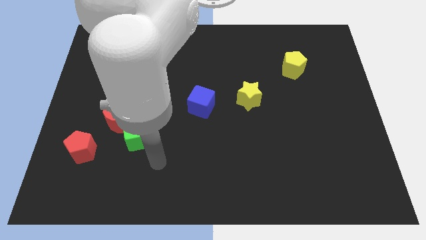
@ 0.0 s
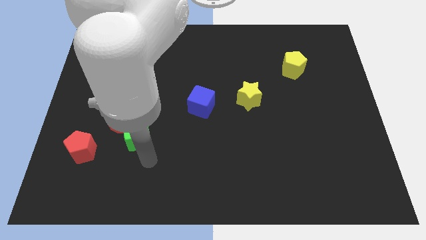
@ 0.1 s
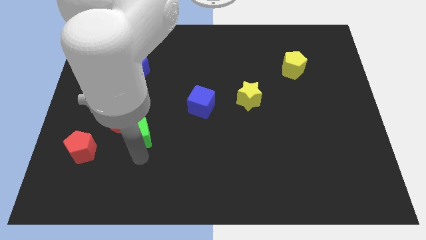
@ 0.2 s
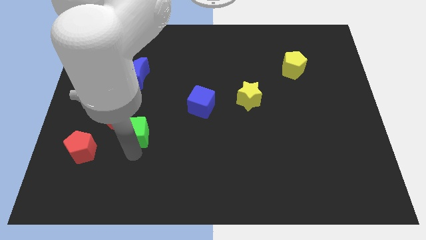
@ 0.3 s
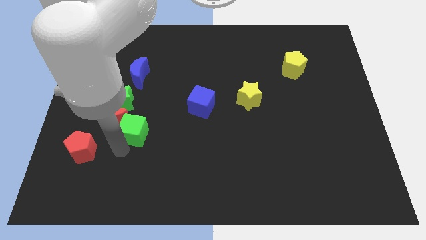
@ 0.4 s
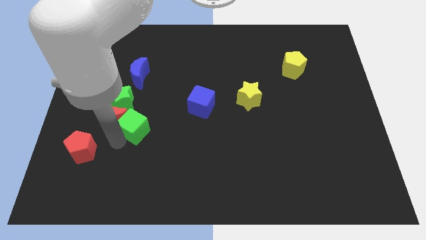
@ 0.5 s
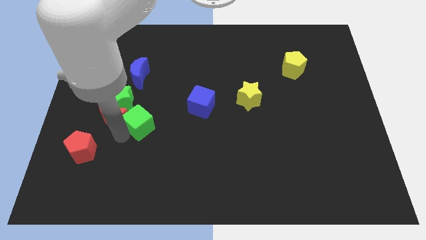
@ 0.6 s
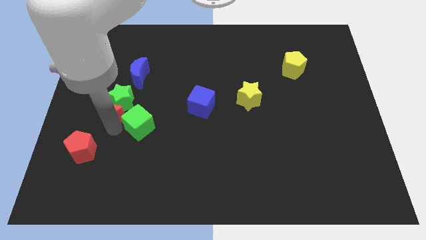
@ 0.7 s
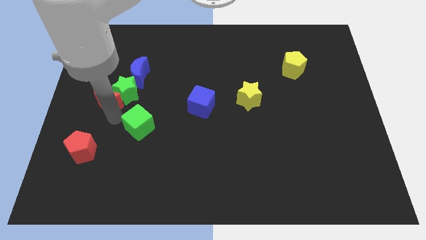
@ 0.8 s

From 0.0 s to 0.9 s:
move the green cube away from the red moon

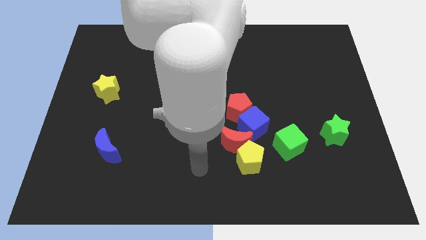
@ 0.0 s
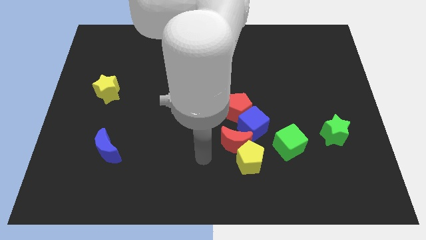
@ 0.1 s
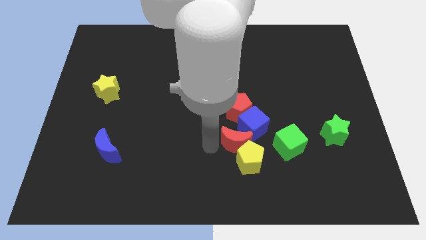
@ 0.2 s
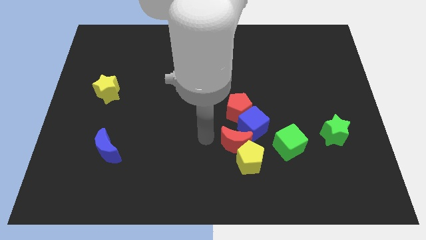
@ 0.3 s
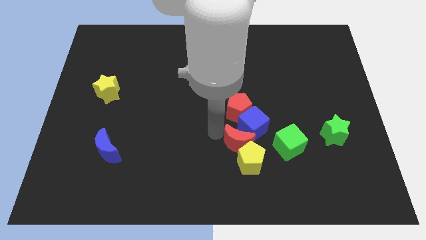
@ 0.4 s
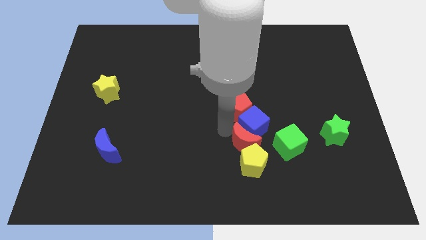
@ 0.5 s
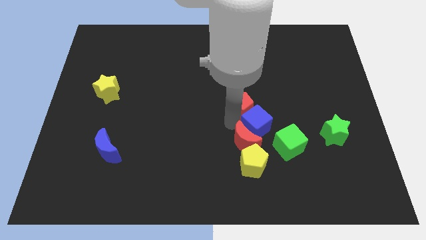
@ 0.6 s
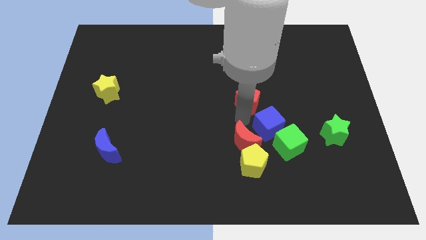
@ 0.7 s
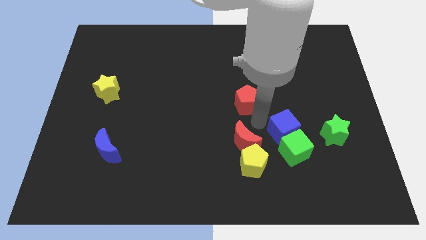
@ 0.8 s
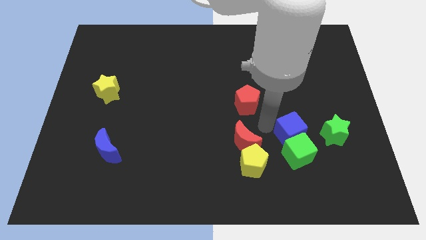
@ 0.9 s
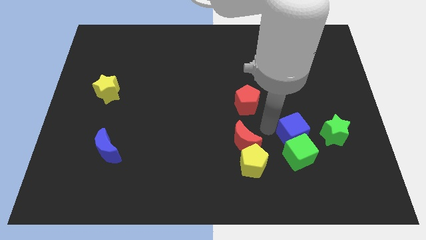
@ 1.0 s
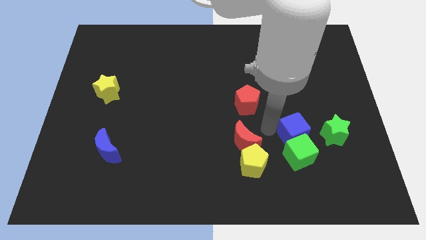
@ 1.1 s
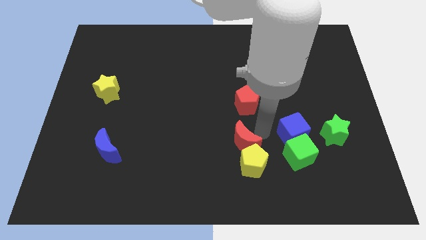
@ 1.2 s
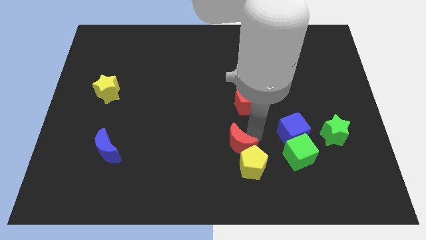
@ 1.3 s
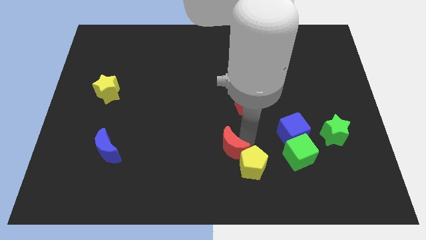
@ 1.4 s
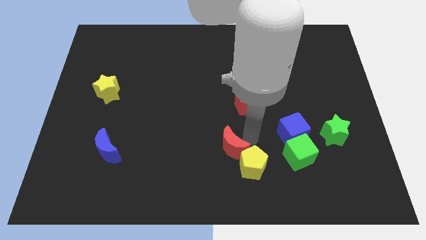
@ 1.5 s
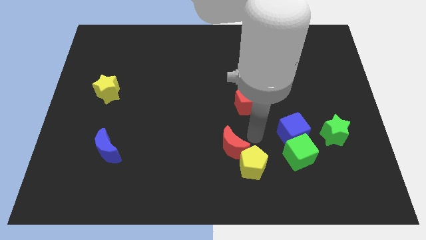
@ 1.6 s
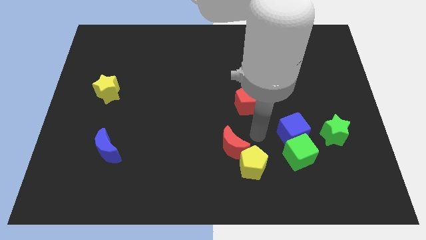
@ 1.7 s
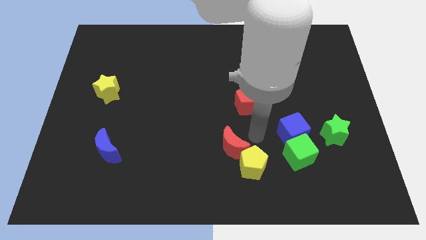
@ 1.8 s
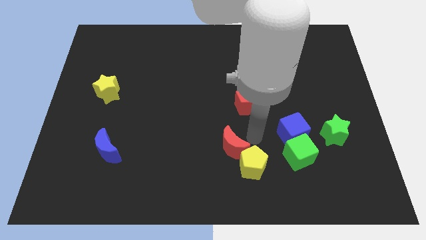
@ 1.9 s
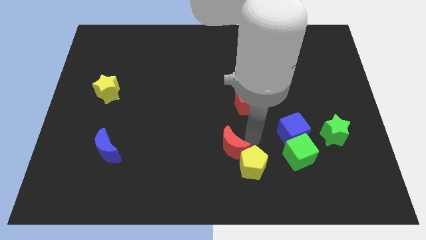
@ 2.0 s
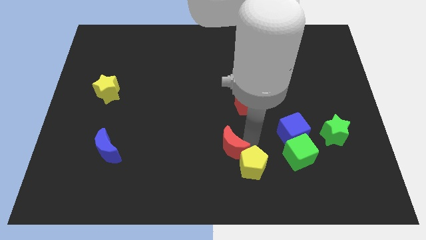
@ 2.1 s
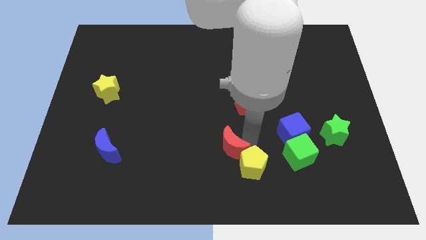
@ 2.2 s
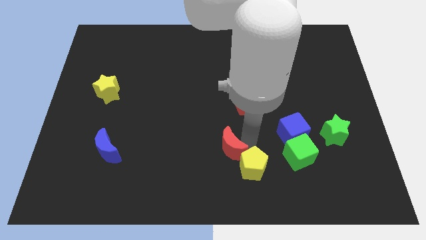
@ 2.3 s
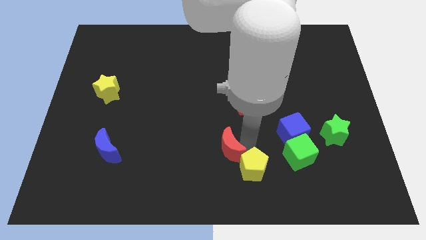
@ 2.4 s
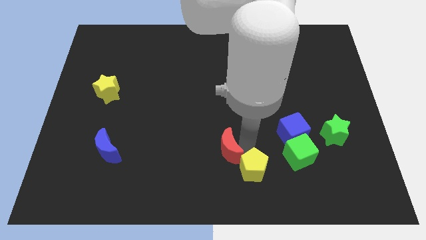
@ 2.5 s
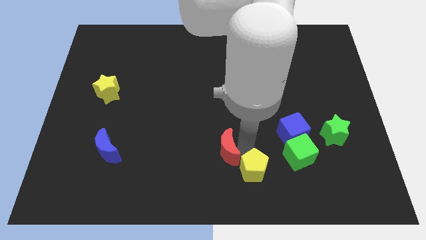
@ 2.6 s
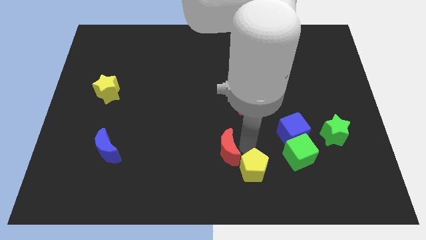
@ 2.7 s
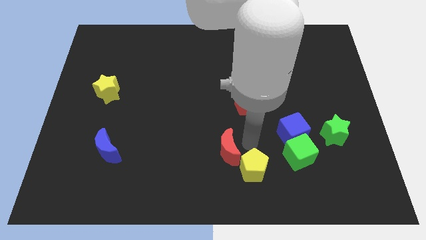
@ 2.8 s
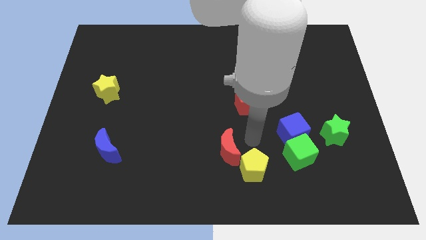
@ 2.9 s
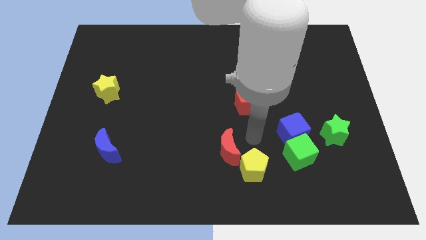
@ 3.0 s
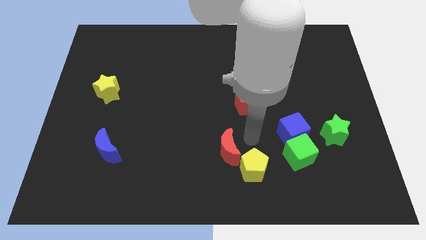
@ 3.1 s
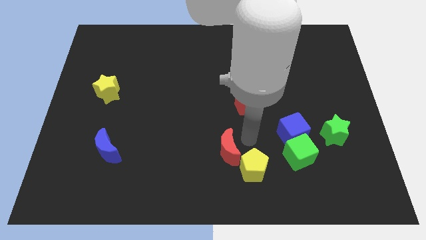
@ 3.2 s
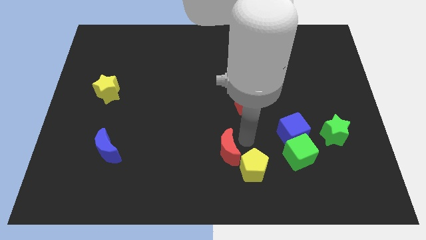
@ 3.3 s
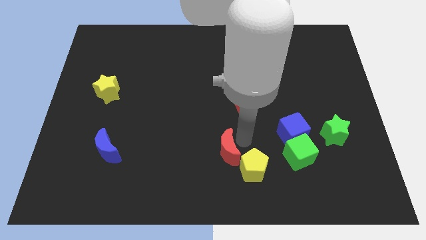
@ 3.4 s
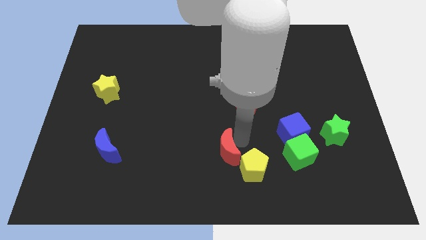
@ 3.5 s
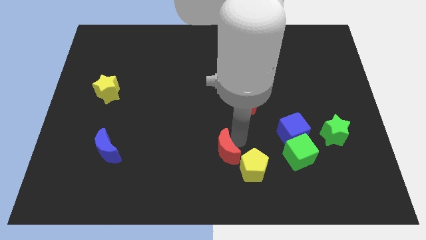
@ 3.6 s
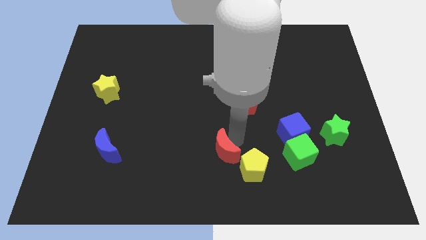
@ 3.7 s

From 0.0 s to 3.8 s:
separate the red moon from the group of blocks

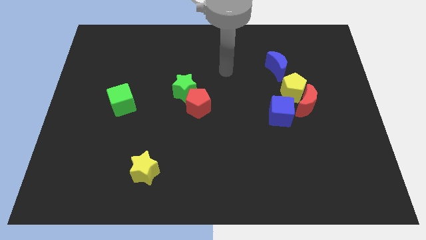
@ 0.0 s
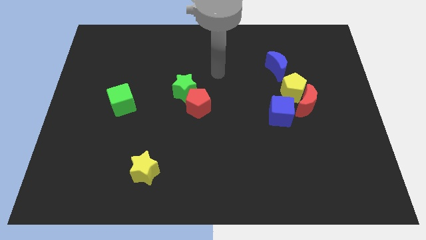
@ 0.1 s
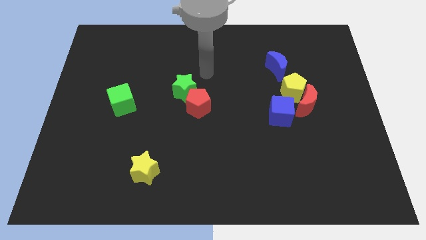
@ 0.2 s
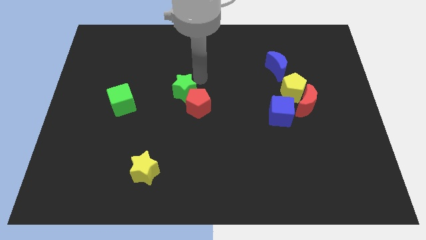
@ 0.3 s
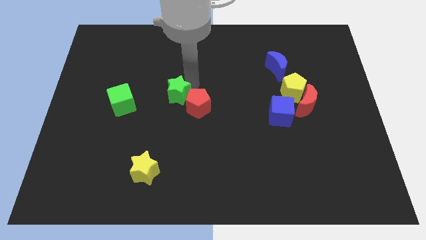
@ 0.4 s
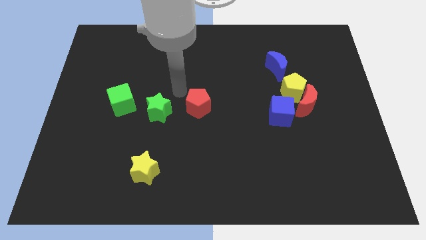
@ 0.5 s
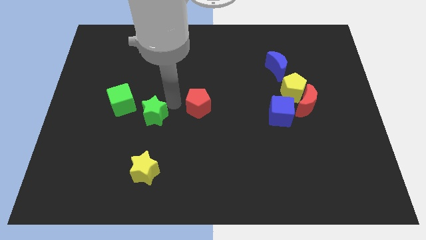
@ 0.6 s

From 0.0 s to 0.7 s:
move the red pentagon away from the green star

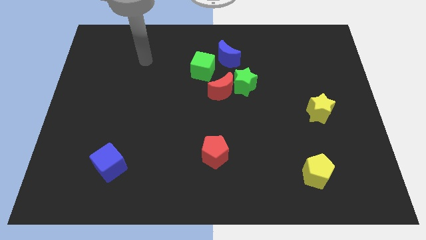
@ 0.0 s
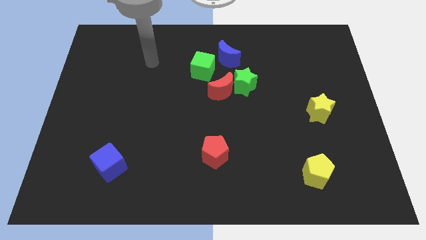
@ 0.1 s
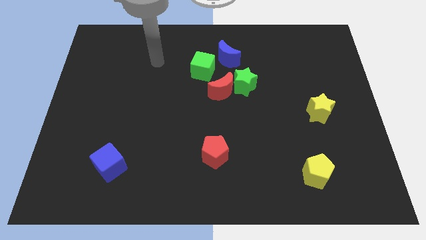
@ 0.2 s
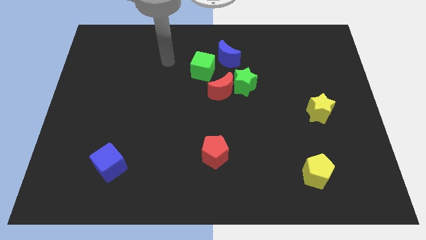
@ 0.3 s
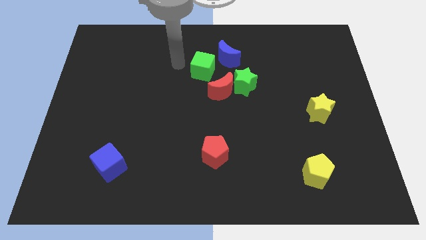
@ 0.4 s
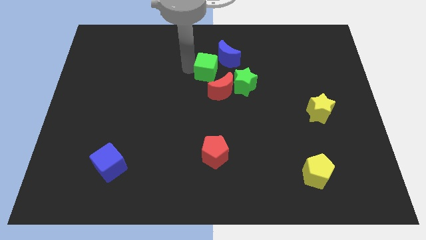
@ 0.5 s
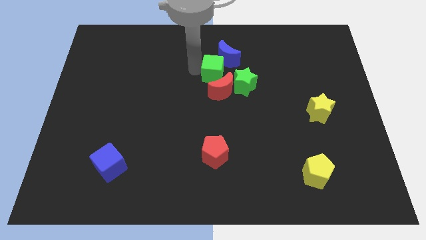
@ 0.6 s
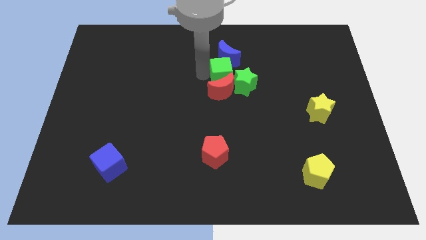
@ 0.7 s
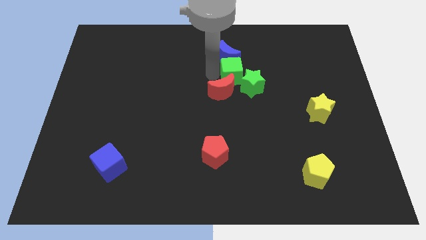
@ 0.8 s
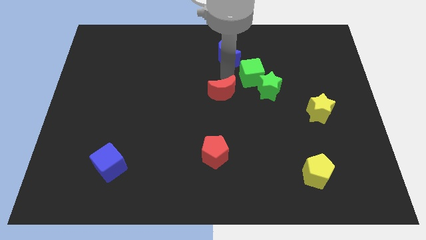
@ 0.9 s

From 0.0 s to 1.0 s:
separate the red moon from the green star and green cube

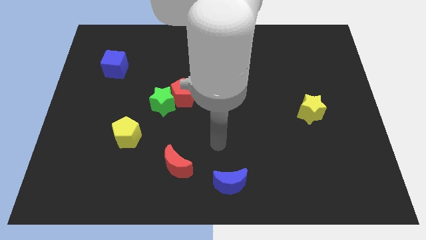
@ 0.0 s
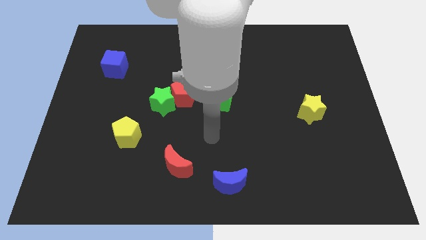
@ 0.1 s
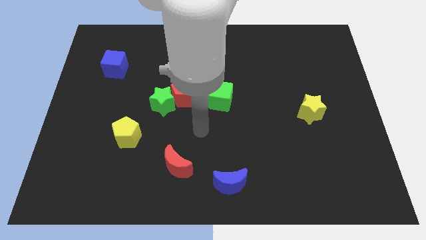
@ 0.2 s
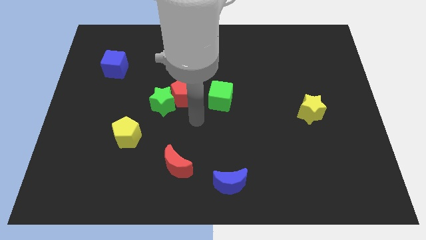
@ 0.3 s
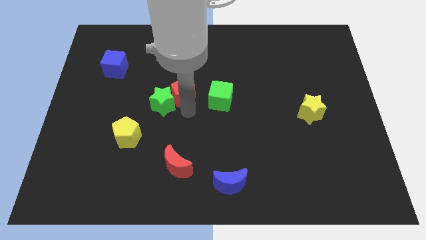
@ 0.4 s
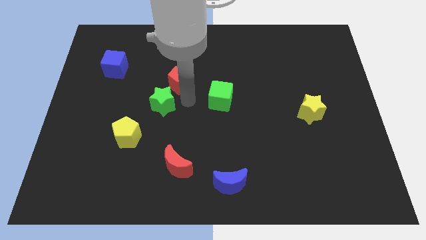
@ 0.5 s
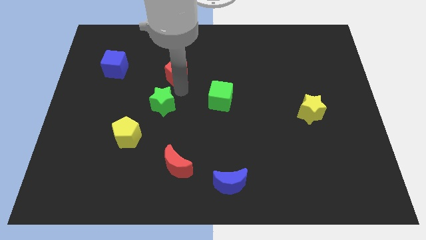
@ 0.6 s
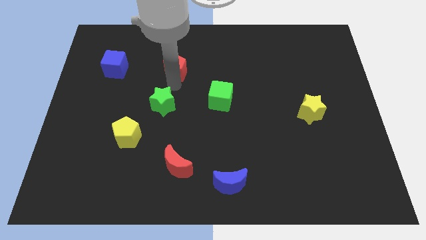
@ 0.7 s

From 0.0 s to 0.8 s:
pull the green star apart from the red pentagon

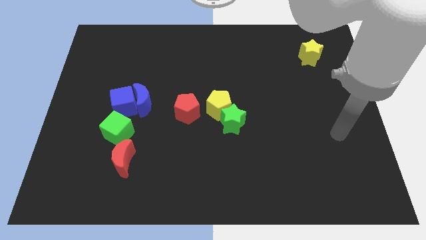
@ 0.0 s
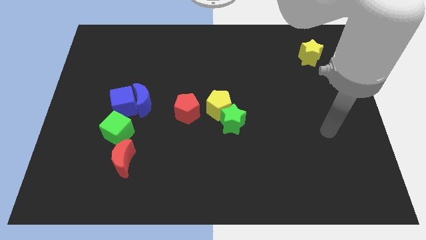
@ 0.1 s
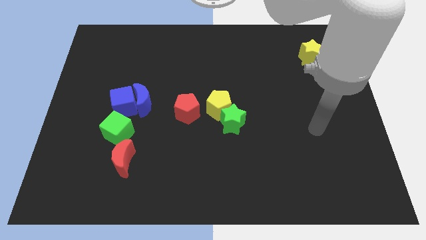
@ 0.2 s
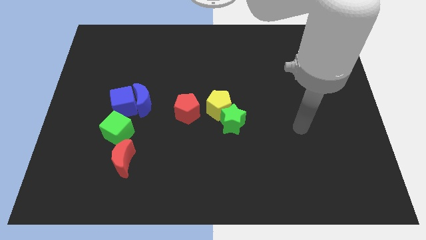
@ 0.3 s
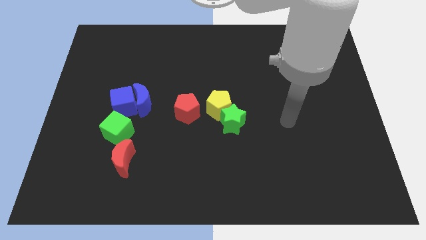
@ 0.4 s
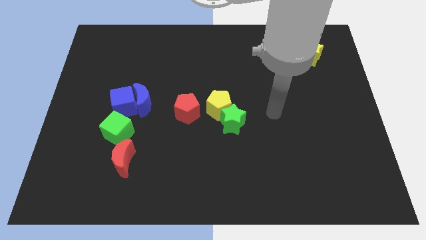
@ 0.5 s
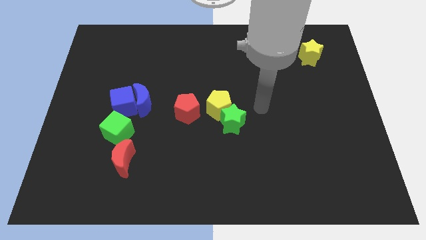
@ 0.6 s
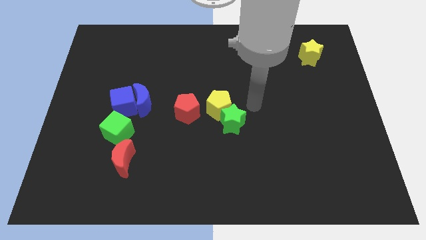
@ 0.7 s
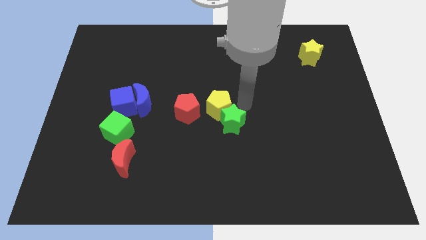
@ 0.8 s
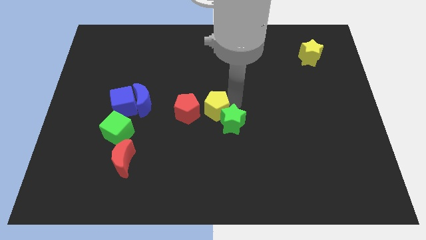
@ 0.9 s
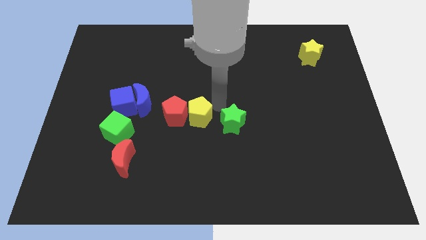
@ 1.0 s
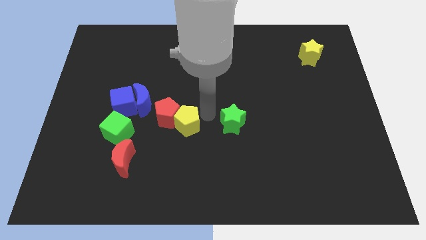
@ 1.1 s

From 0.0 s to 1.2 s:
move the green star away from the yellow pentagon

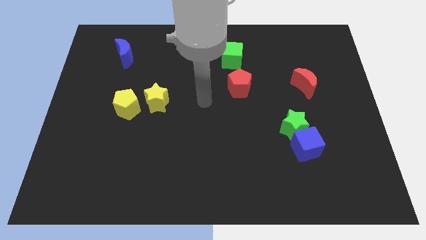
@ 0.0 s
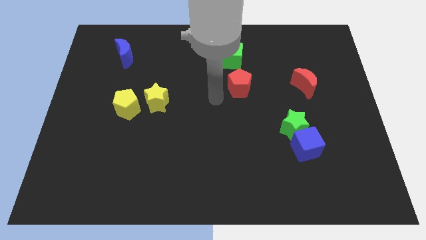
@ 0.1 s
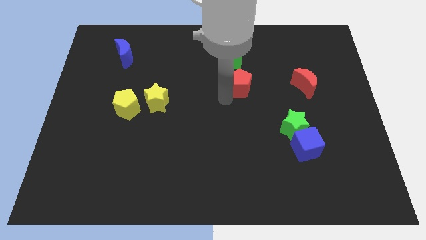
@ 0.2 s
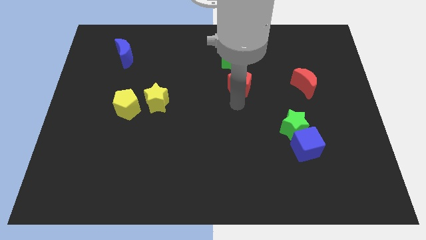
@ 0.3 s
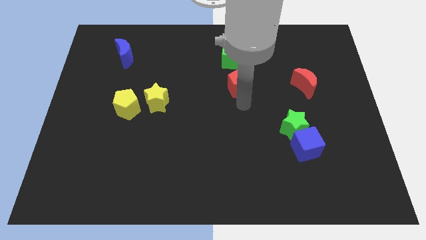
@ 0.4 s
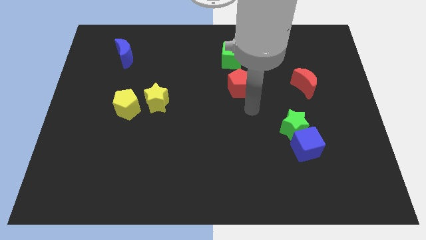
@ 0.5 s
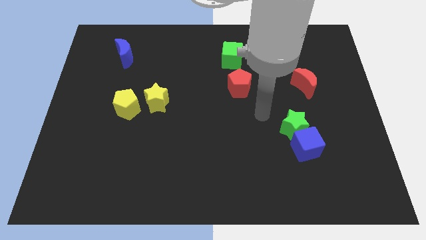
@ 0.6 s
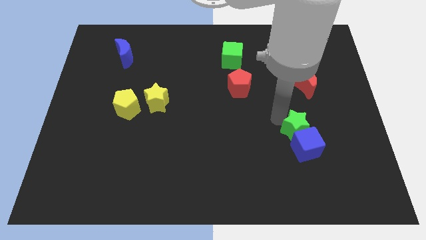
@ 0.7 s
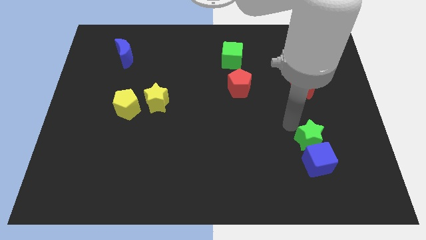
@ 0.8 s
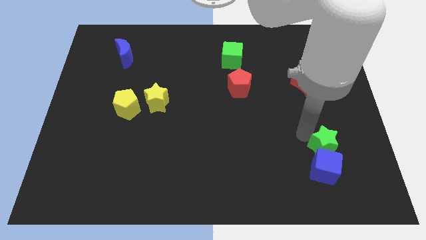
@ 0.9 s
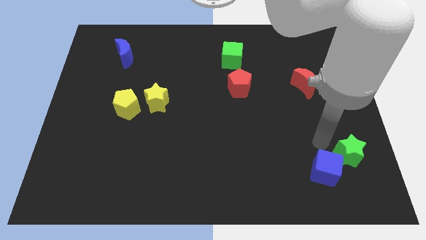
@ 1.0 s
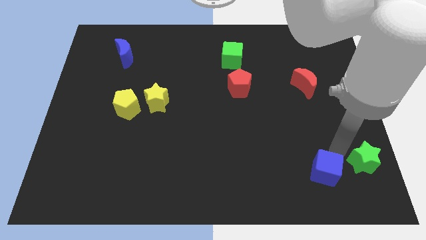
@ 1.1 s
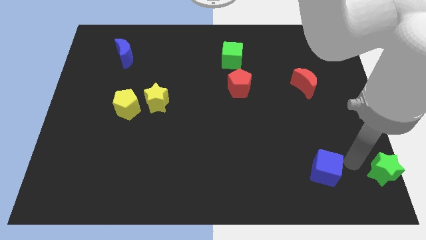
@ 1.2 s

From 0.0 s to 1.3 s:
move the blue cube away from the green star
